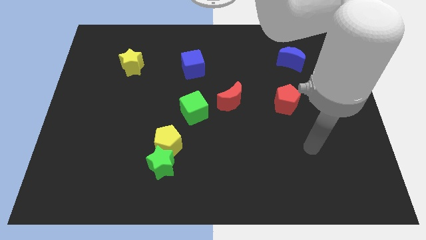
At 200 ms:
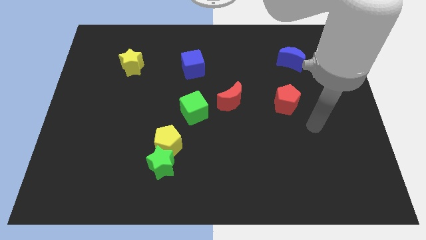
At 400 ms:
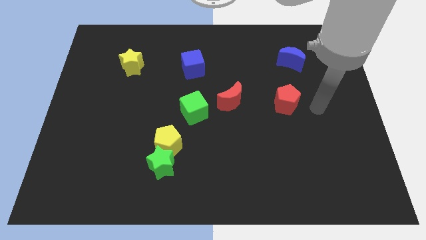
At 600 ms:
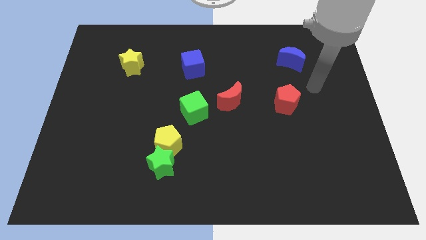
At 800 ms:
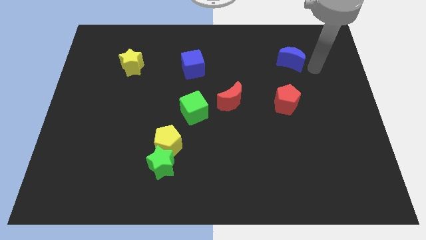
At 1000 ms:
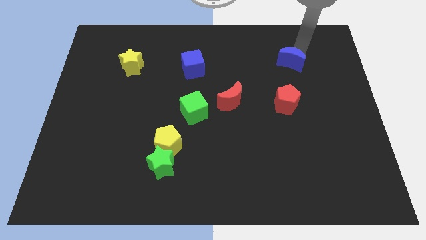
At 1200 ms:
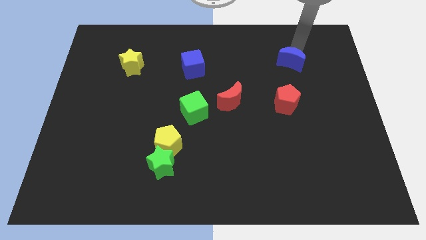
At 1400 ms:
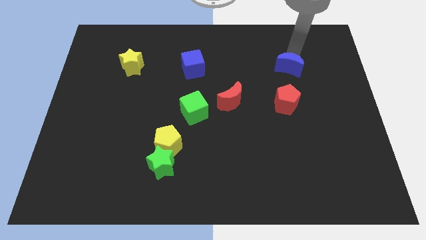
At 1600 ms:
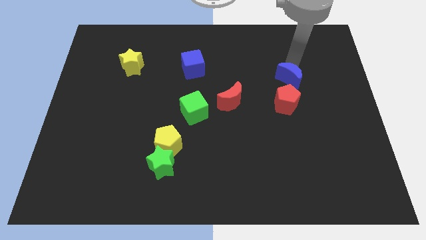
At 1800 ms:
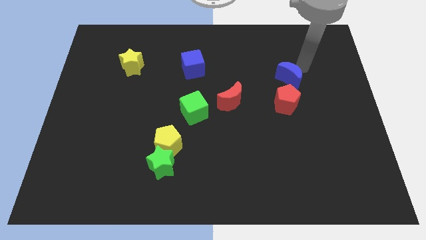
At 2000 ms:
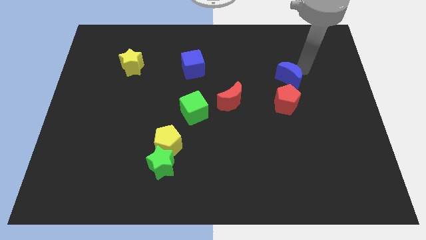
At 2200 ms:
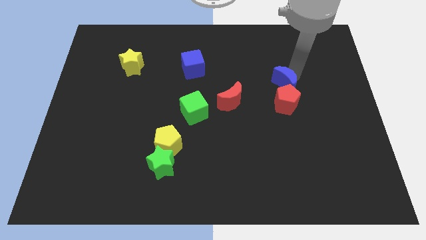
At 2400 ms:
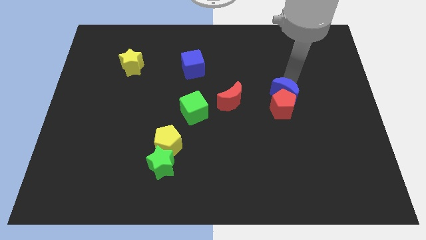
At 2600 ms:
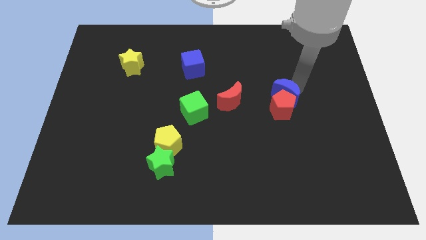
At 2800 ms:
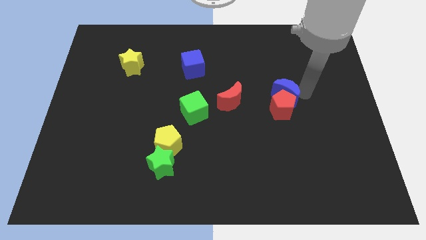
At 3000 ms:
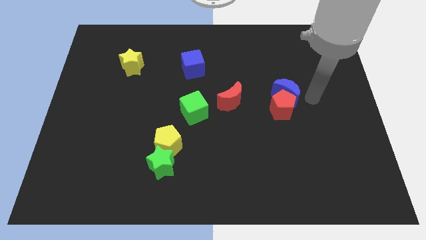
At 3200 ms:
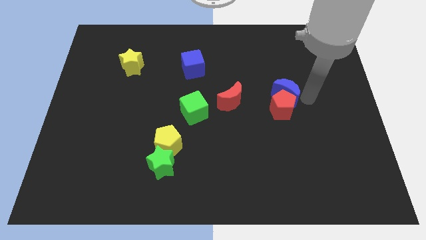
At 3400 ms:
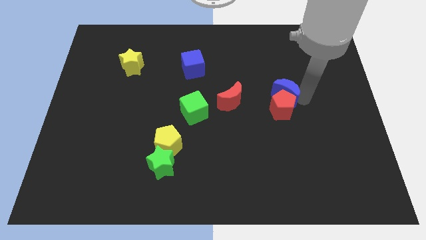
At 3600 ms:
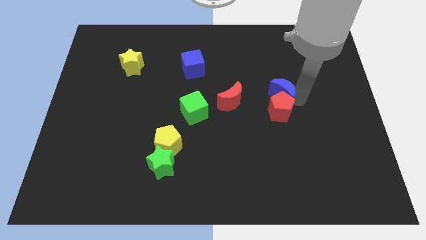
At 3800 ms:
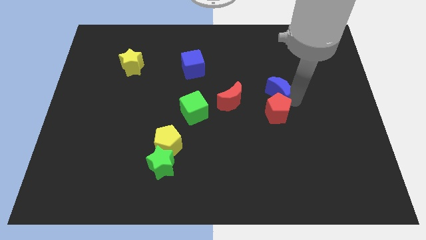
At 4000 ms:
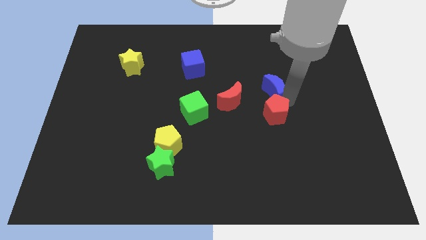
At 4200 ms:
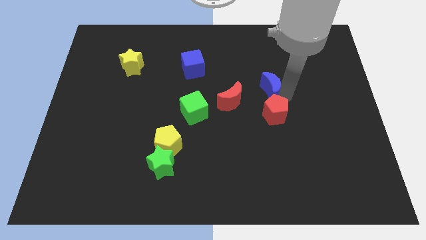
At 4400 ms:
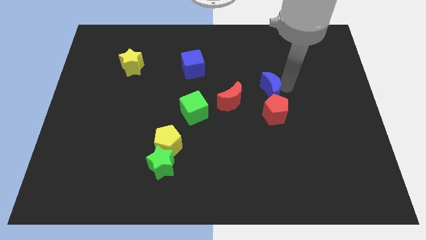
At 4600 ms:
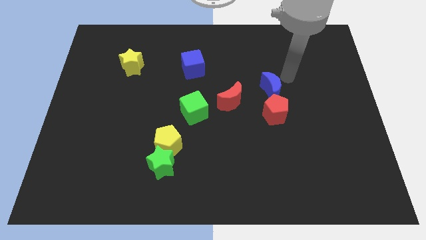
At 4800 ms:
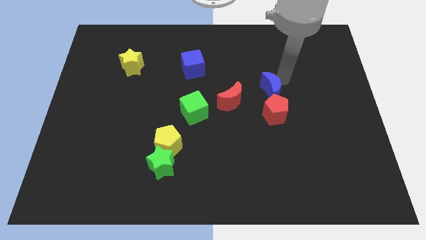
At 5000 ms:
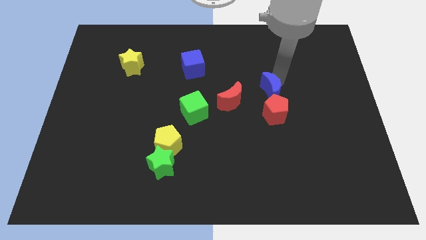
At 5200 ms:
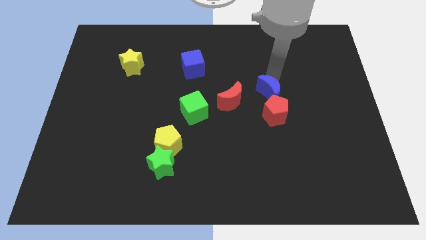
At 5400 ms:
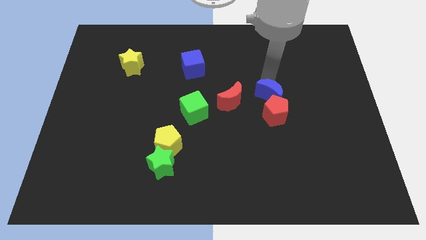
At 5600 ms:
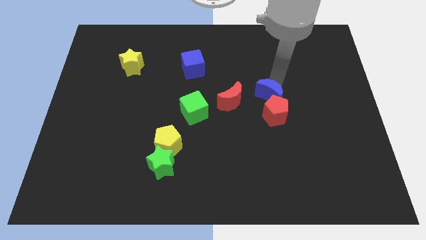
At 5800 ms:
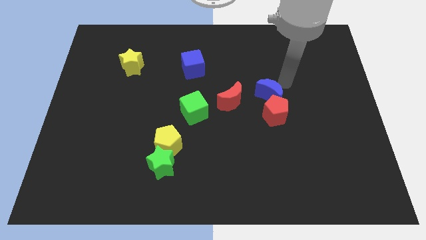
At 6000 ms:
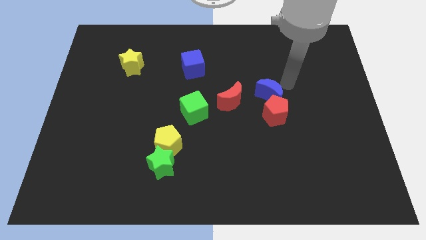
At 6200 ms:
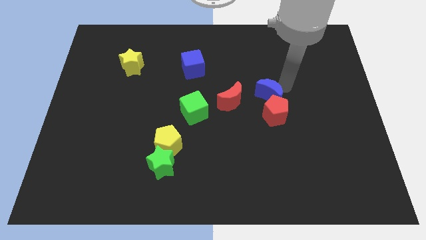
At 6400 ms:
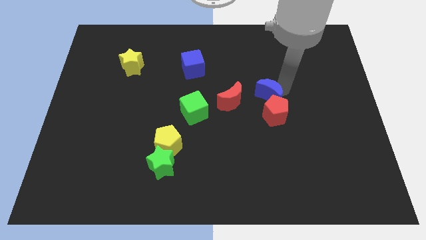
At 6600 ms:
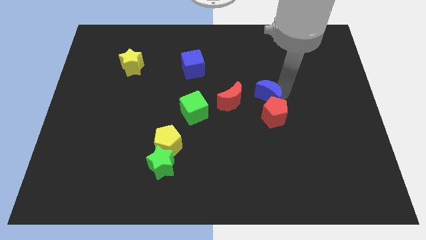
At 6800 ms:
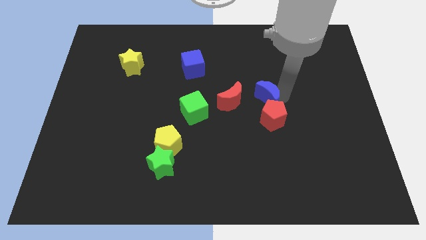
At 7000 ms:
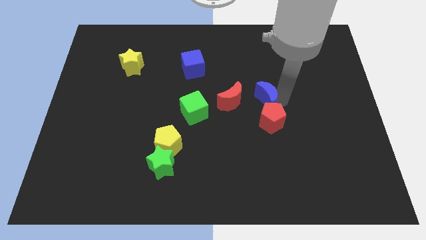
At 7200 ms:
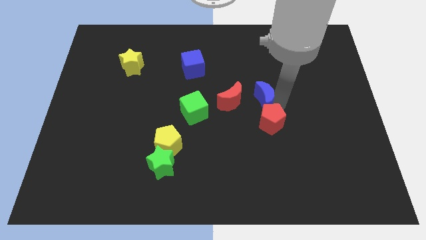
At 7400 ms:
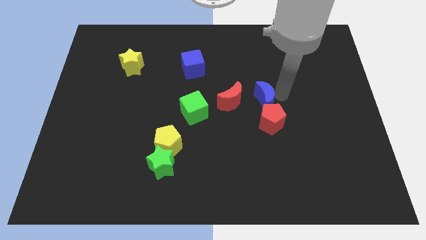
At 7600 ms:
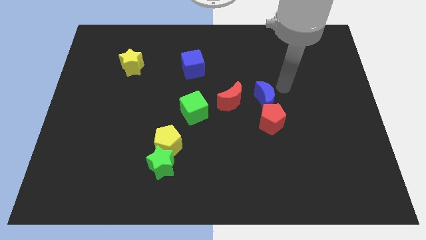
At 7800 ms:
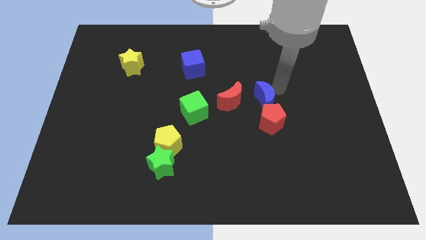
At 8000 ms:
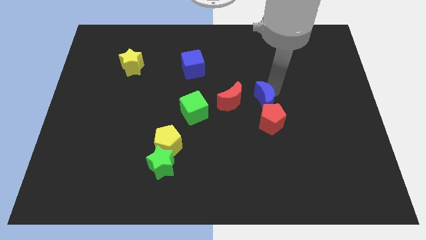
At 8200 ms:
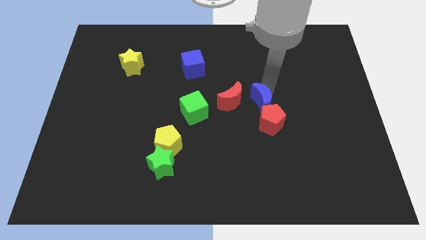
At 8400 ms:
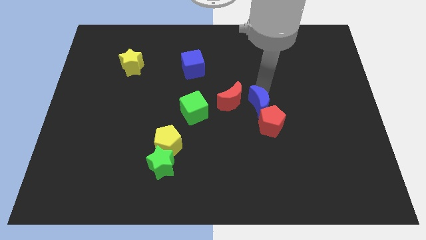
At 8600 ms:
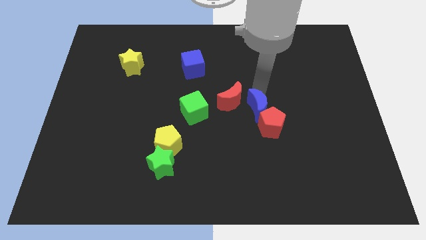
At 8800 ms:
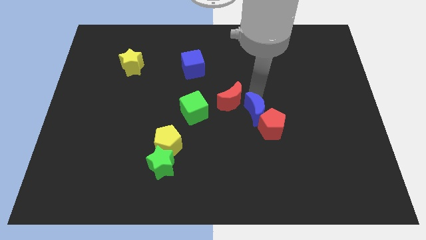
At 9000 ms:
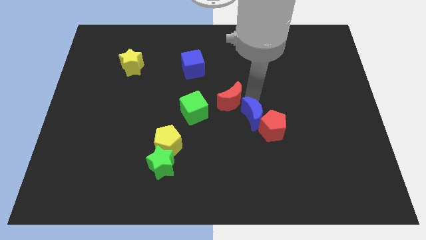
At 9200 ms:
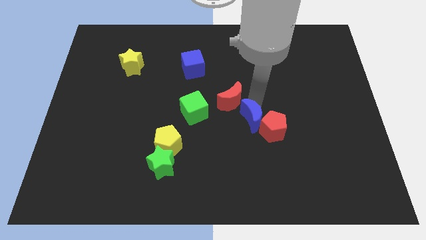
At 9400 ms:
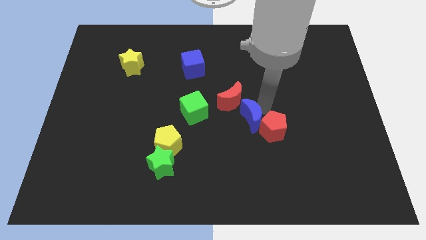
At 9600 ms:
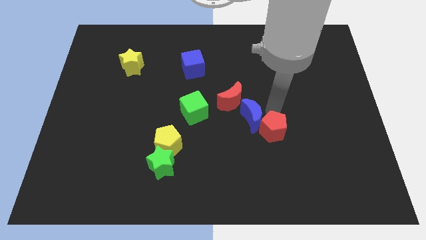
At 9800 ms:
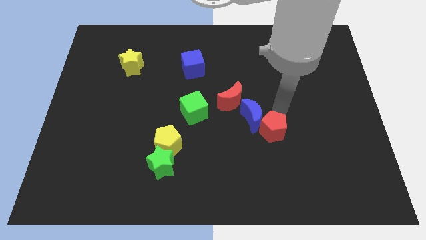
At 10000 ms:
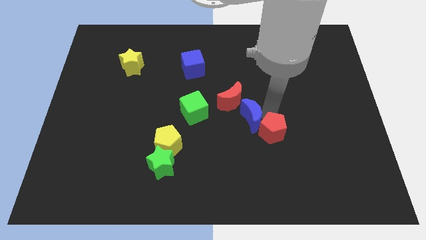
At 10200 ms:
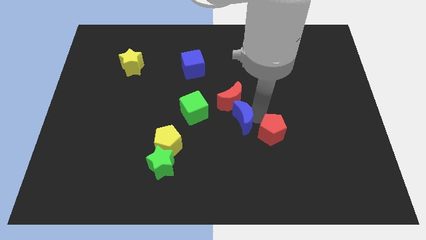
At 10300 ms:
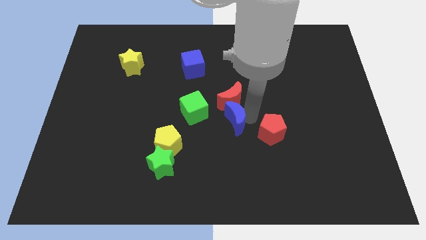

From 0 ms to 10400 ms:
push the blue moon diagonally down and to the right of the green cube

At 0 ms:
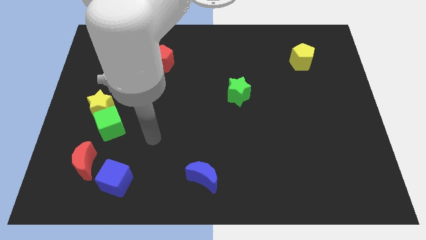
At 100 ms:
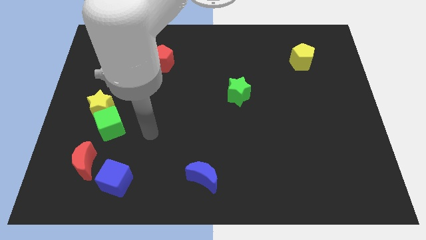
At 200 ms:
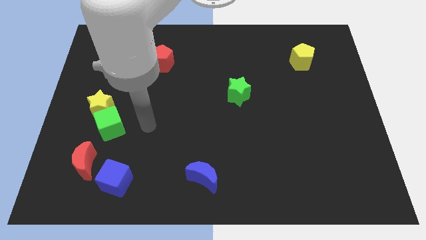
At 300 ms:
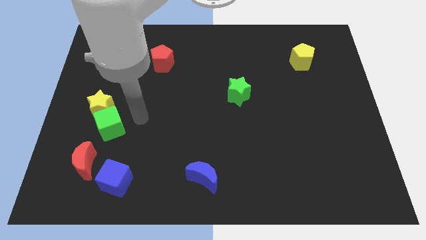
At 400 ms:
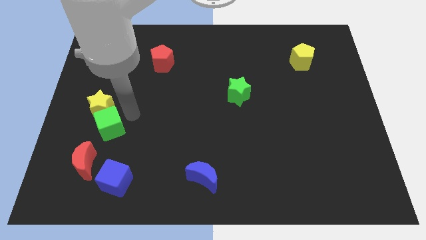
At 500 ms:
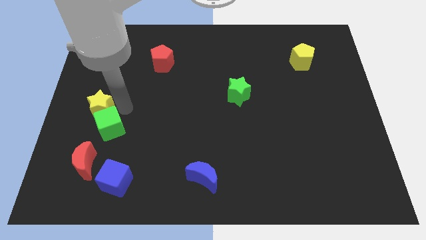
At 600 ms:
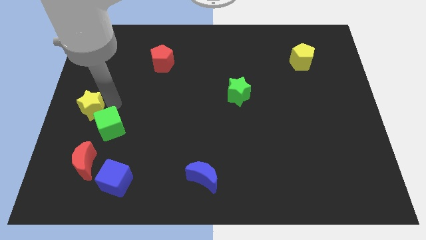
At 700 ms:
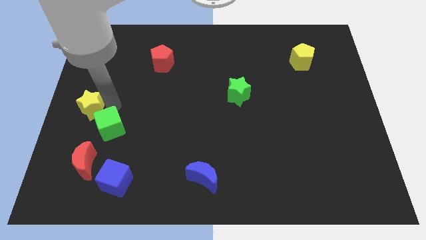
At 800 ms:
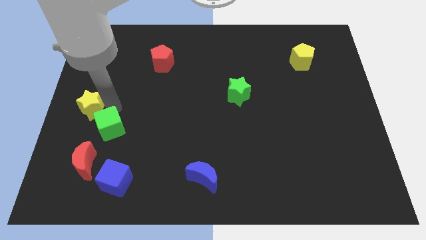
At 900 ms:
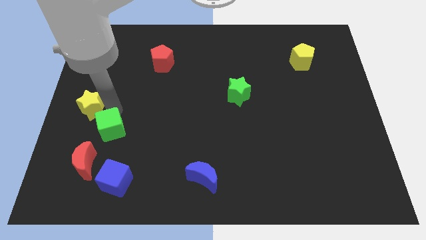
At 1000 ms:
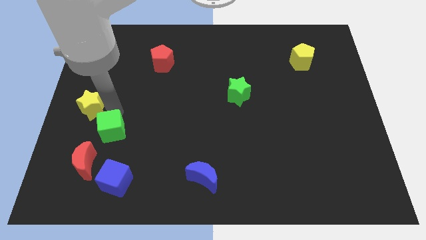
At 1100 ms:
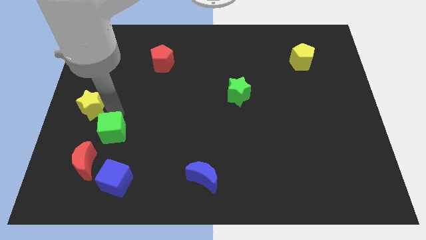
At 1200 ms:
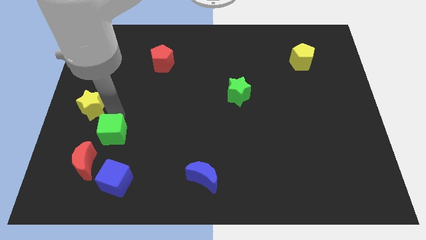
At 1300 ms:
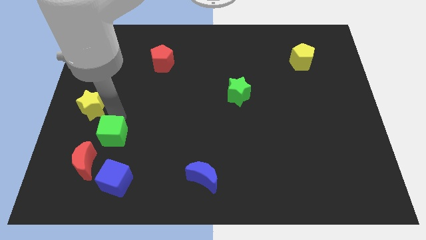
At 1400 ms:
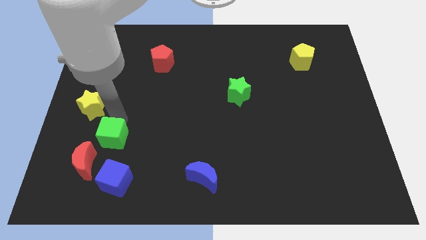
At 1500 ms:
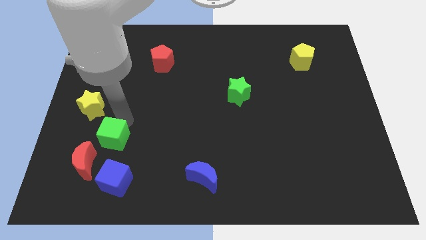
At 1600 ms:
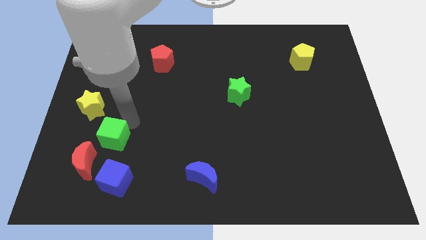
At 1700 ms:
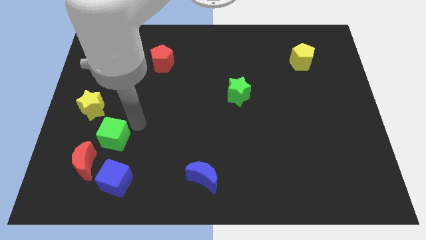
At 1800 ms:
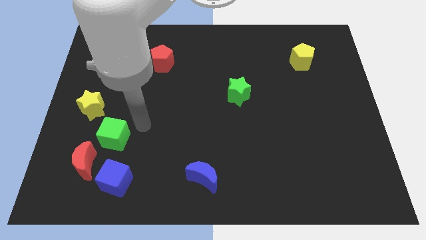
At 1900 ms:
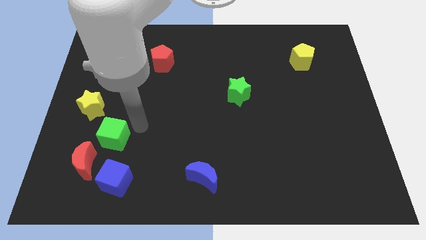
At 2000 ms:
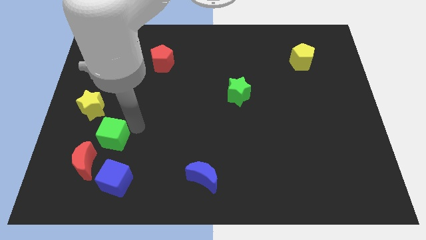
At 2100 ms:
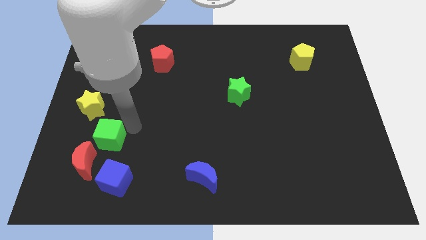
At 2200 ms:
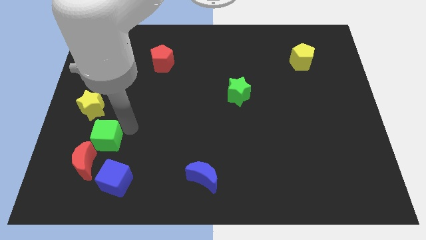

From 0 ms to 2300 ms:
push the green cube to the top left of the blue cube

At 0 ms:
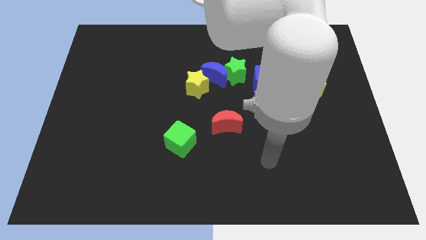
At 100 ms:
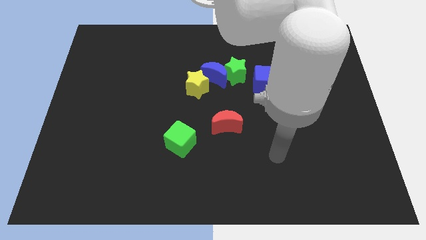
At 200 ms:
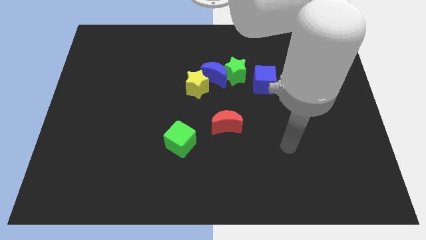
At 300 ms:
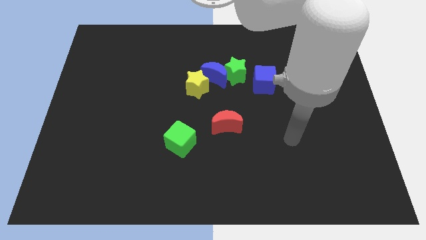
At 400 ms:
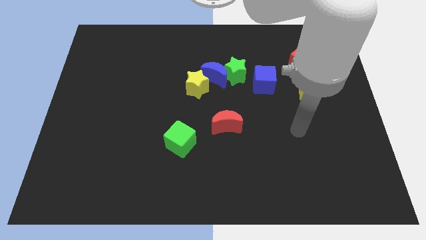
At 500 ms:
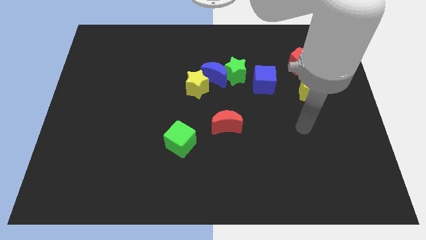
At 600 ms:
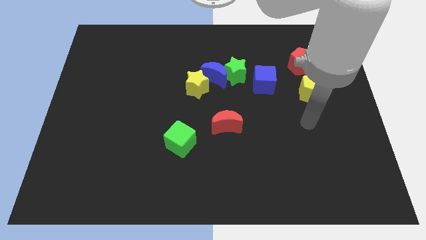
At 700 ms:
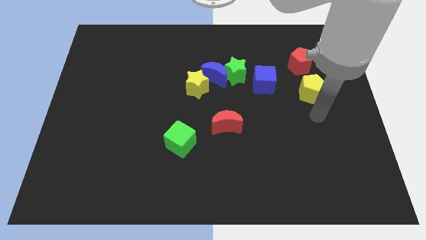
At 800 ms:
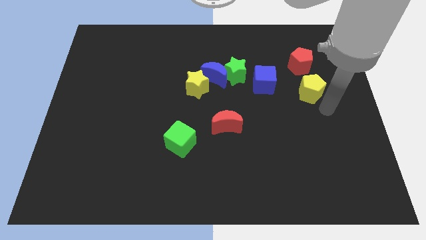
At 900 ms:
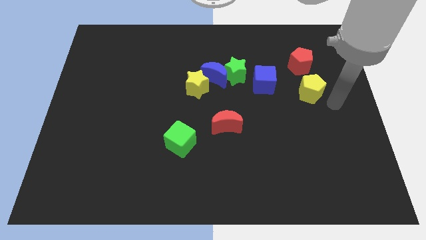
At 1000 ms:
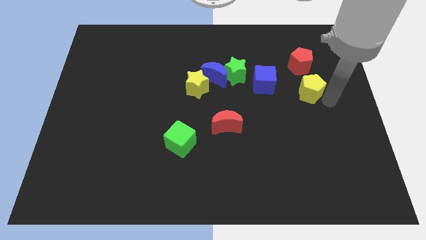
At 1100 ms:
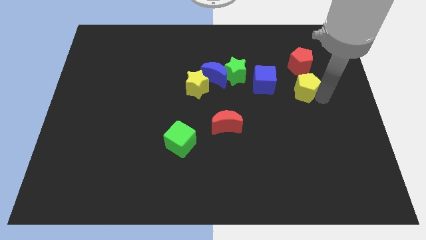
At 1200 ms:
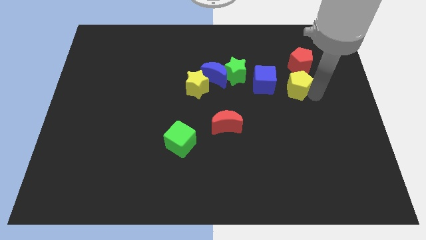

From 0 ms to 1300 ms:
slide the yellow pentagon to the bottom left side of the red pentagon
